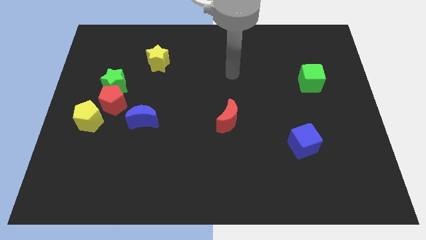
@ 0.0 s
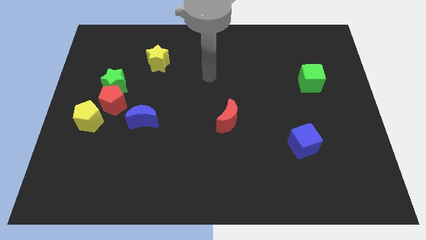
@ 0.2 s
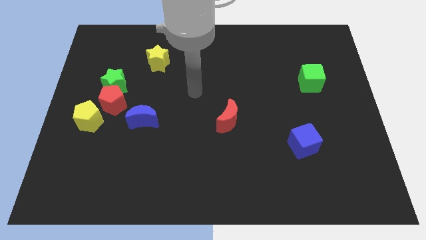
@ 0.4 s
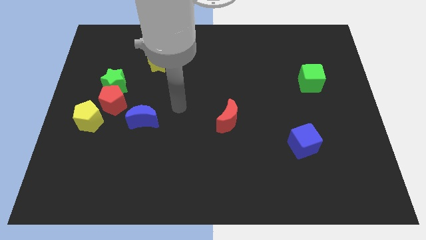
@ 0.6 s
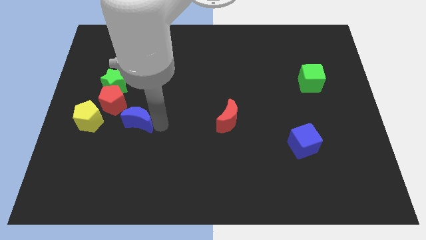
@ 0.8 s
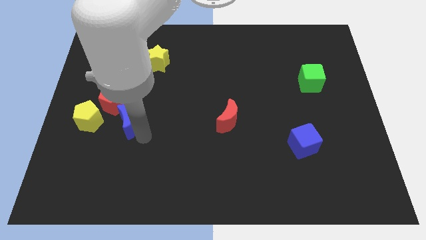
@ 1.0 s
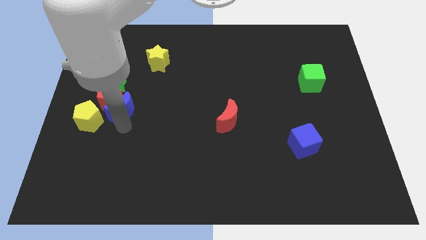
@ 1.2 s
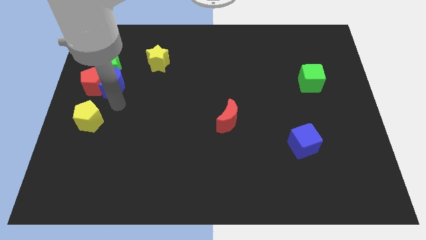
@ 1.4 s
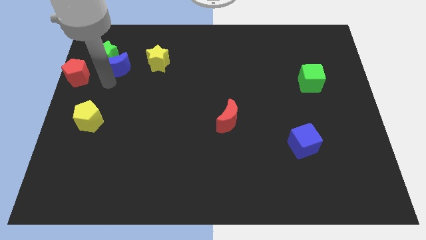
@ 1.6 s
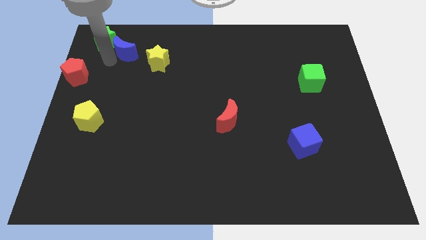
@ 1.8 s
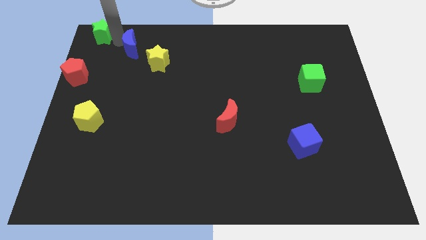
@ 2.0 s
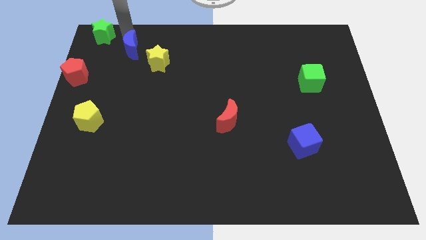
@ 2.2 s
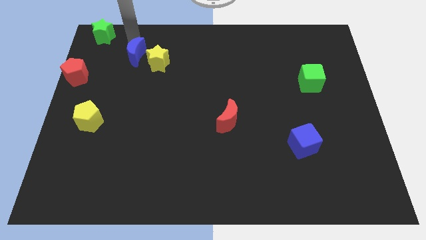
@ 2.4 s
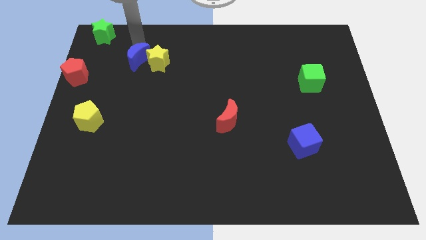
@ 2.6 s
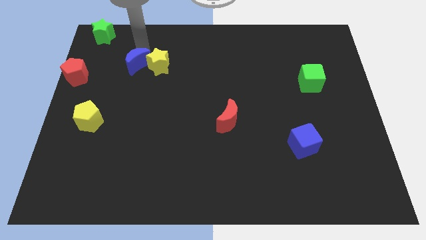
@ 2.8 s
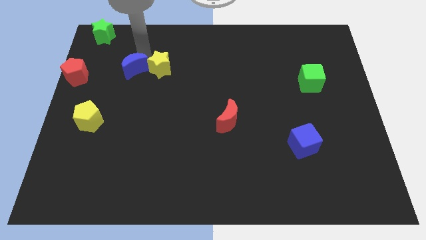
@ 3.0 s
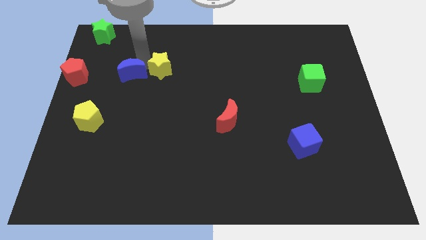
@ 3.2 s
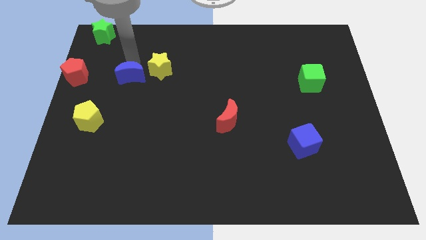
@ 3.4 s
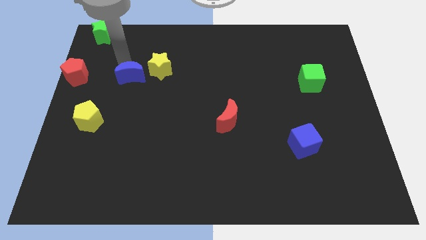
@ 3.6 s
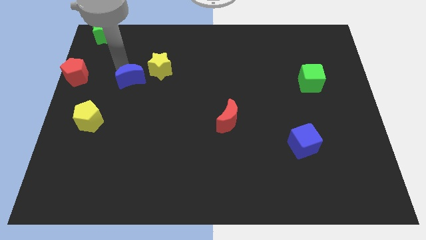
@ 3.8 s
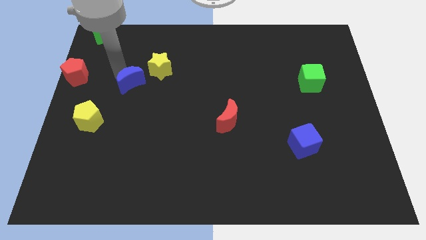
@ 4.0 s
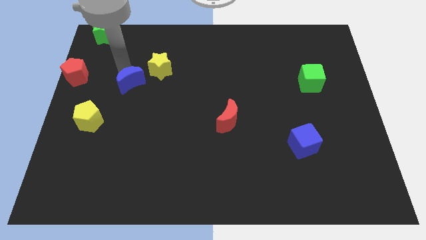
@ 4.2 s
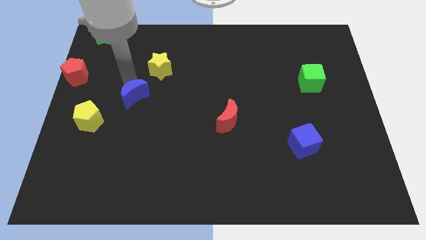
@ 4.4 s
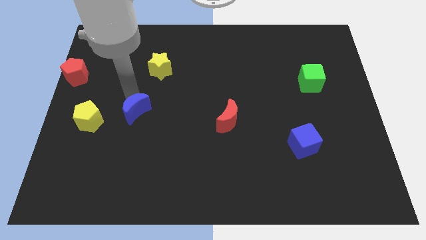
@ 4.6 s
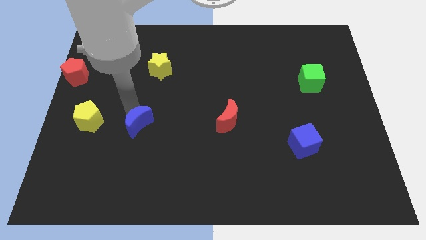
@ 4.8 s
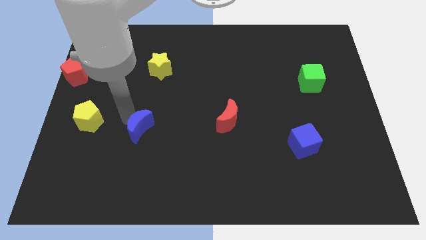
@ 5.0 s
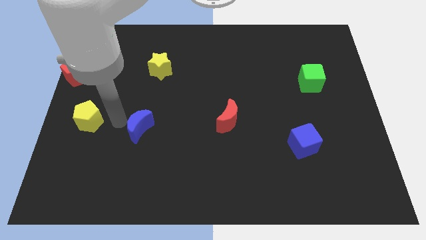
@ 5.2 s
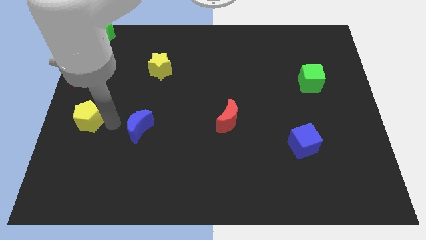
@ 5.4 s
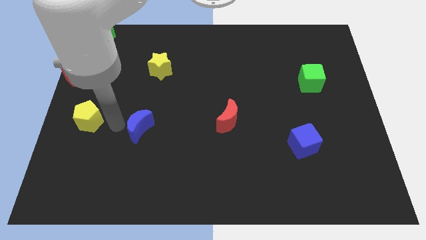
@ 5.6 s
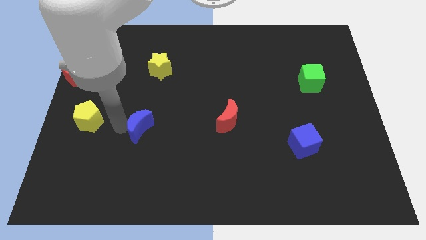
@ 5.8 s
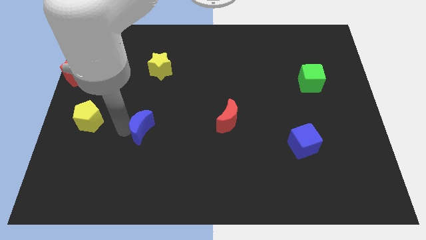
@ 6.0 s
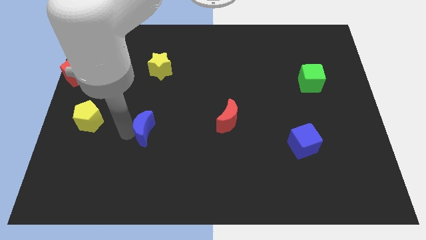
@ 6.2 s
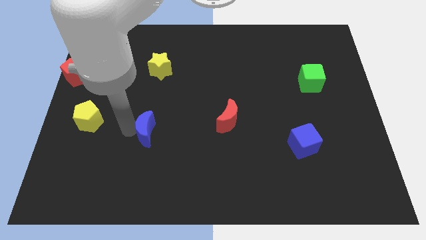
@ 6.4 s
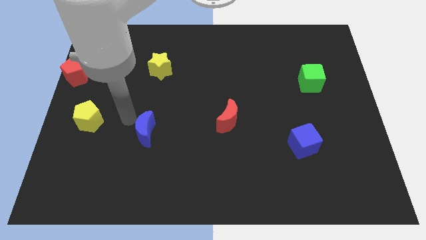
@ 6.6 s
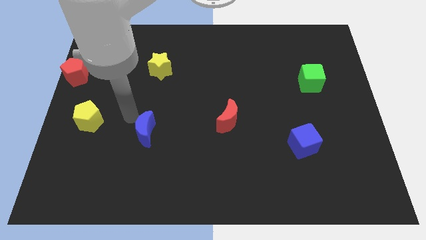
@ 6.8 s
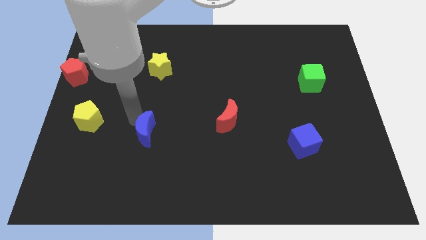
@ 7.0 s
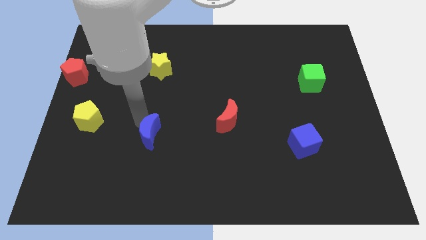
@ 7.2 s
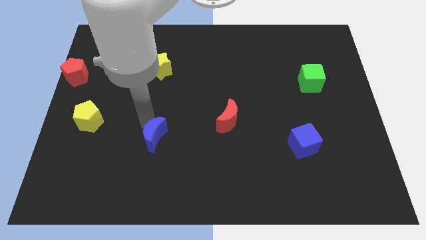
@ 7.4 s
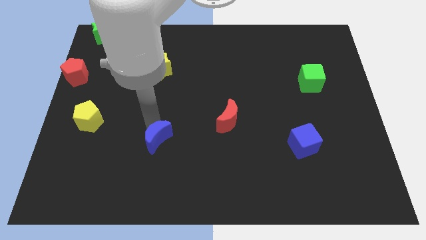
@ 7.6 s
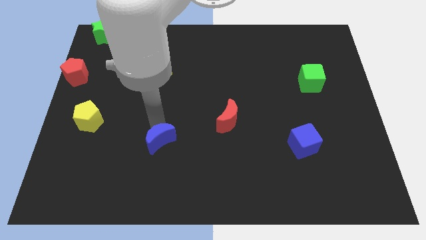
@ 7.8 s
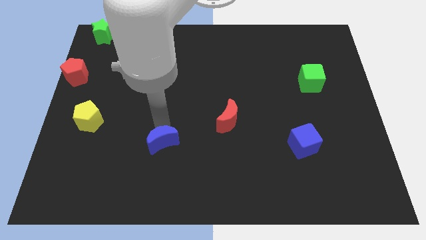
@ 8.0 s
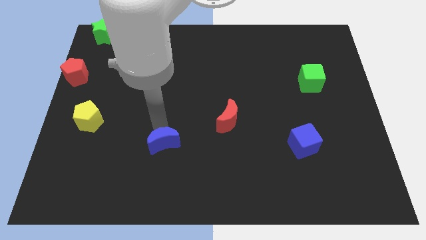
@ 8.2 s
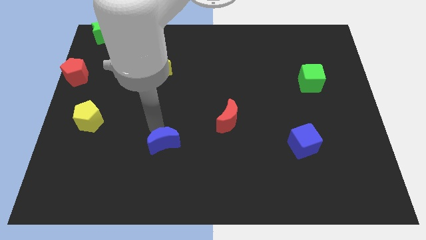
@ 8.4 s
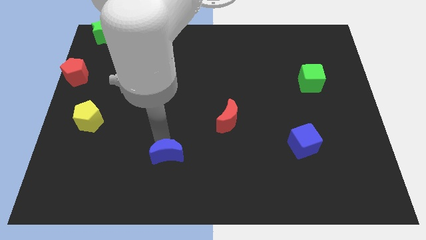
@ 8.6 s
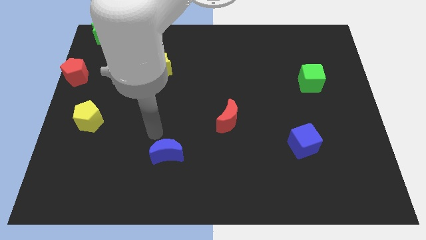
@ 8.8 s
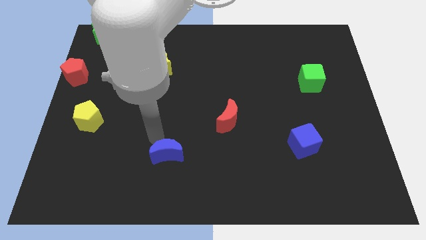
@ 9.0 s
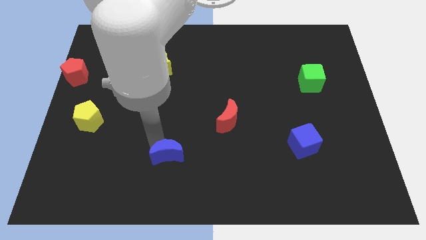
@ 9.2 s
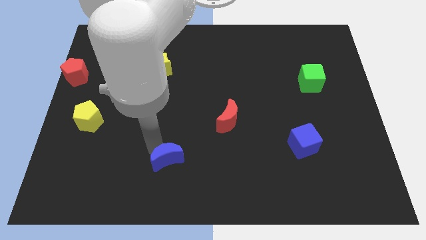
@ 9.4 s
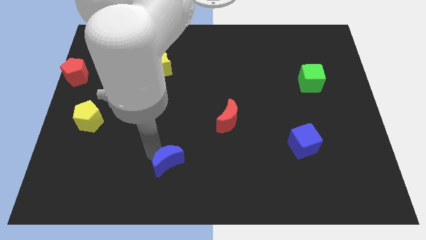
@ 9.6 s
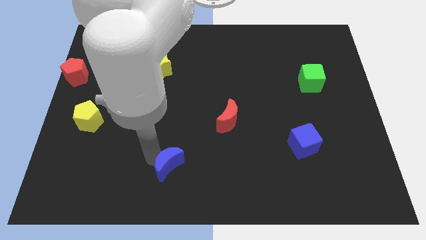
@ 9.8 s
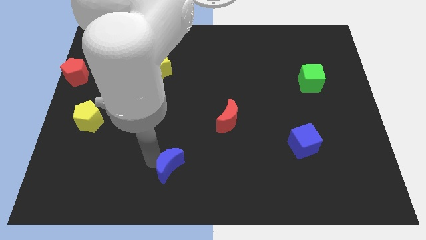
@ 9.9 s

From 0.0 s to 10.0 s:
push the blue moon to the bottom
